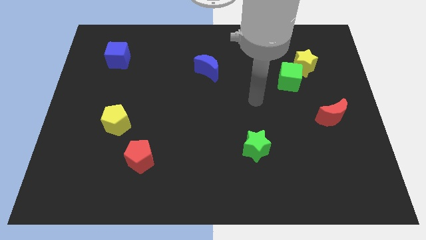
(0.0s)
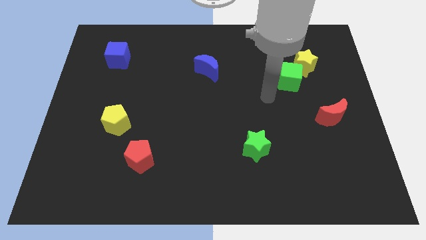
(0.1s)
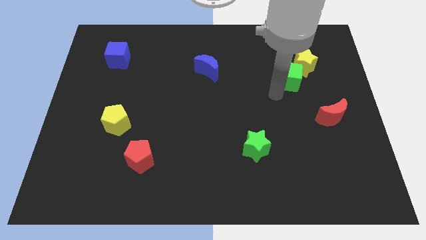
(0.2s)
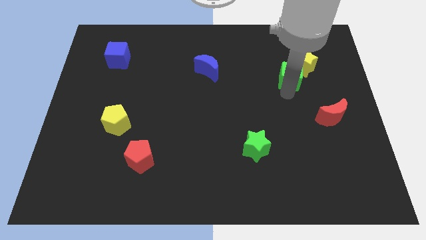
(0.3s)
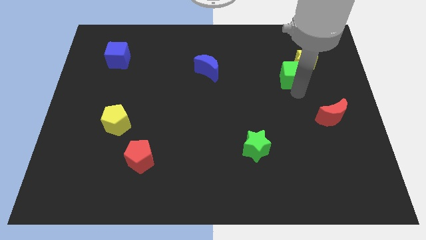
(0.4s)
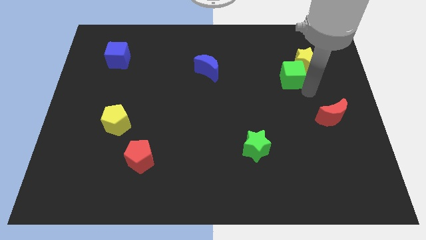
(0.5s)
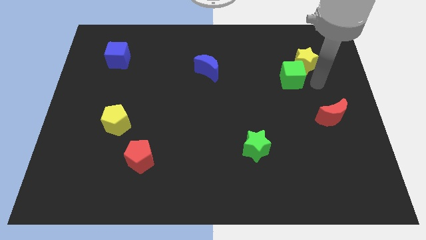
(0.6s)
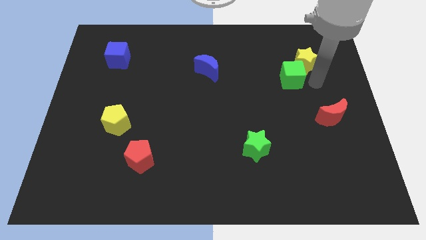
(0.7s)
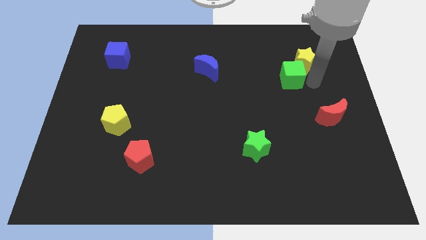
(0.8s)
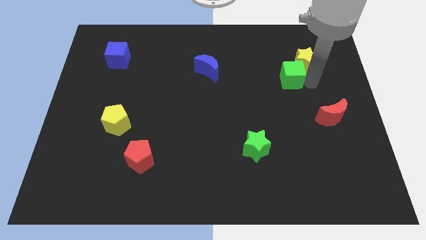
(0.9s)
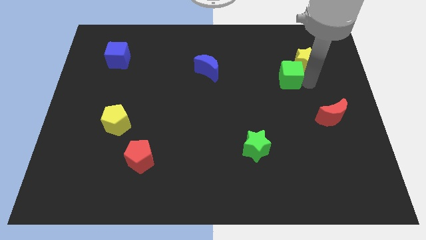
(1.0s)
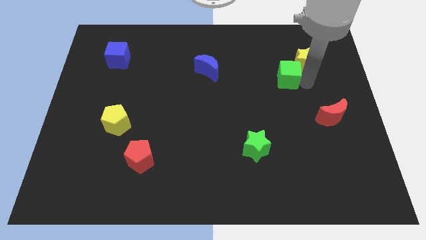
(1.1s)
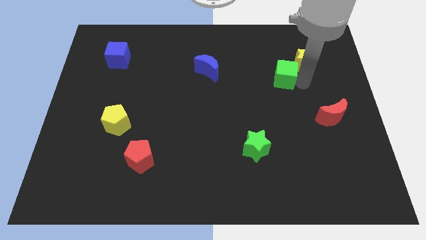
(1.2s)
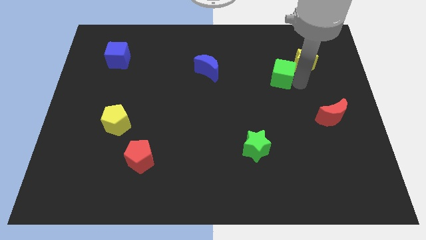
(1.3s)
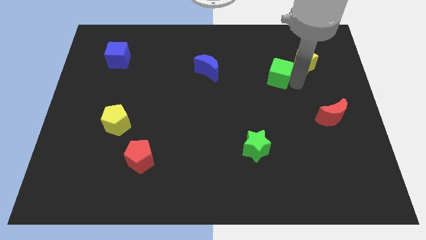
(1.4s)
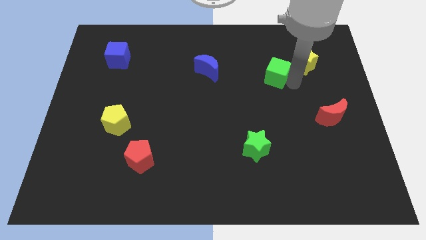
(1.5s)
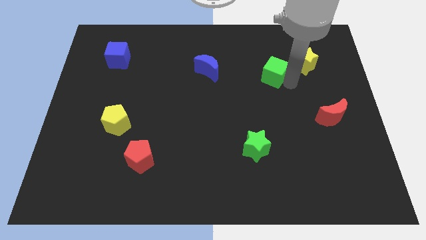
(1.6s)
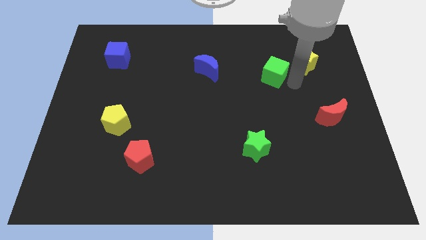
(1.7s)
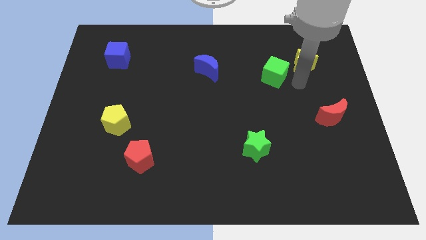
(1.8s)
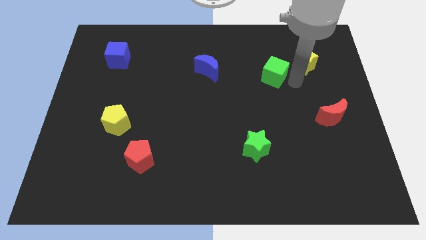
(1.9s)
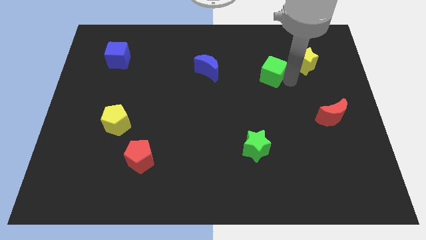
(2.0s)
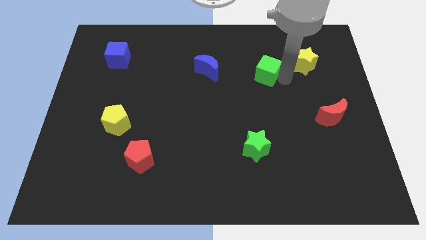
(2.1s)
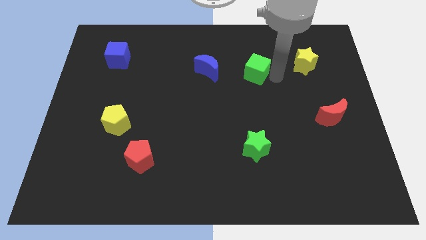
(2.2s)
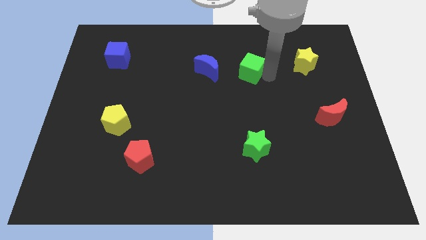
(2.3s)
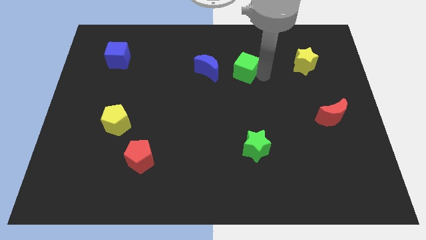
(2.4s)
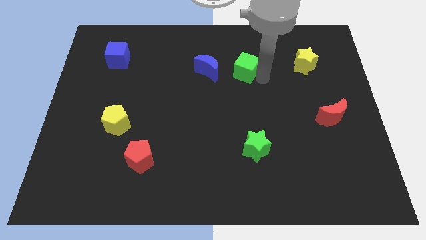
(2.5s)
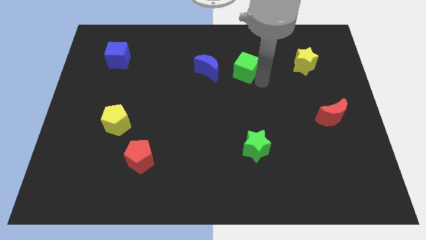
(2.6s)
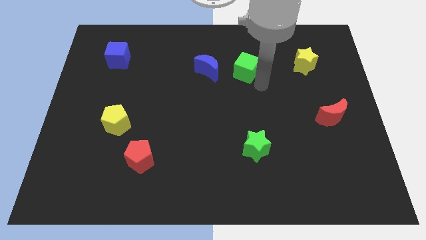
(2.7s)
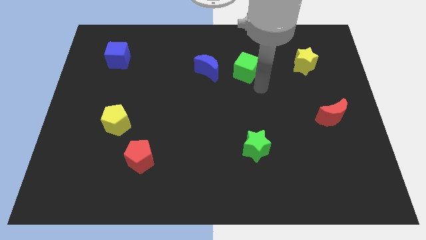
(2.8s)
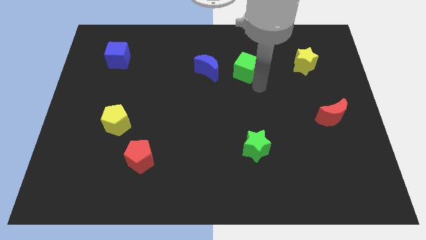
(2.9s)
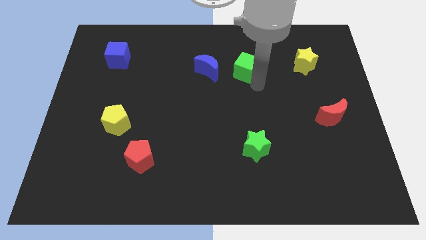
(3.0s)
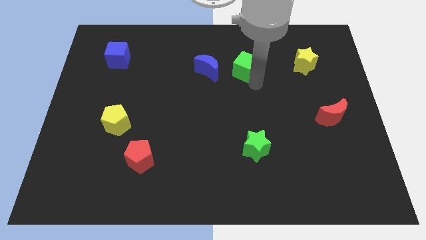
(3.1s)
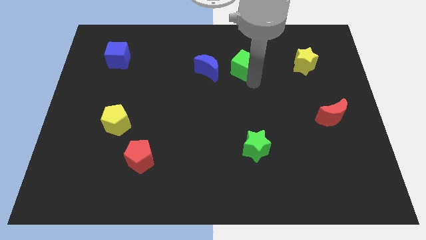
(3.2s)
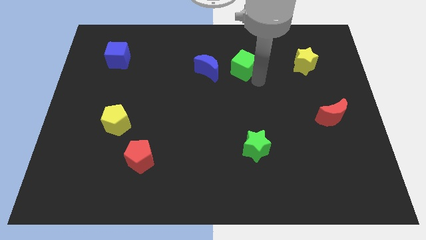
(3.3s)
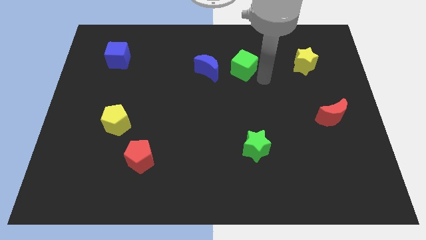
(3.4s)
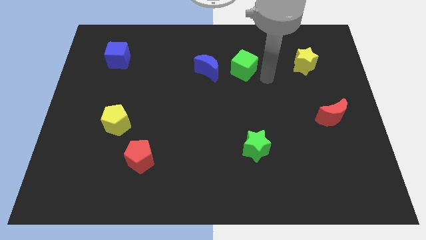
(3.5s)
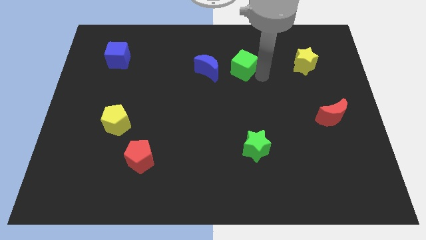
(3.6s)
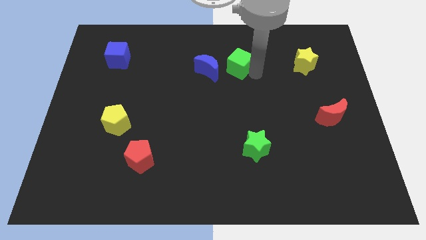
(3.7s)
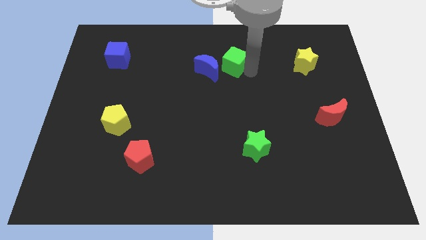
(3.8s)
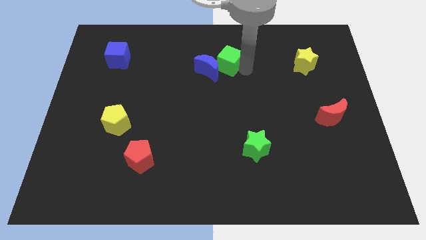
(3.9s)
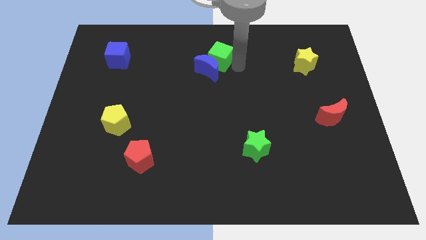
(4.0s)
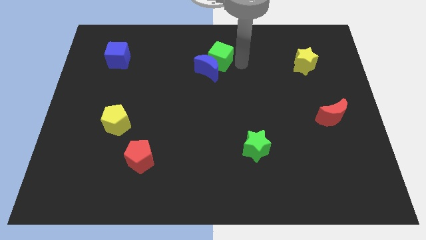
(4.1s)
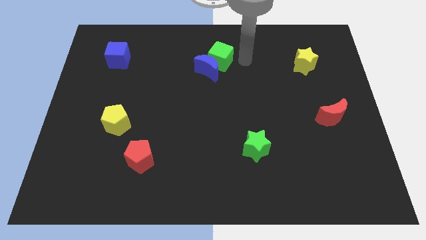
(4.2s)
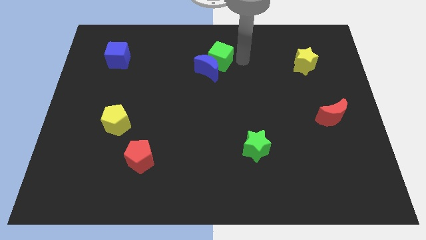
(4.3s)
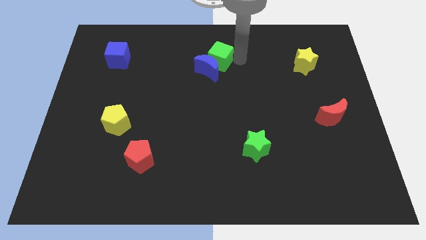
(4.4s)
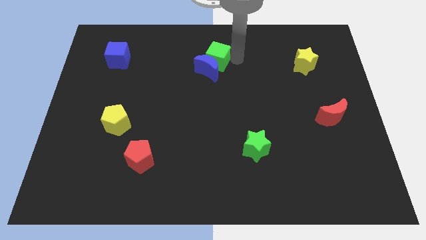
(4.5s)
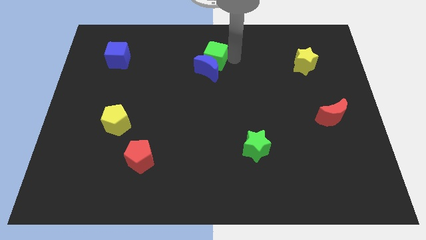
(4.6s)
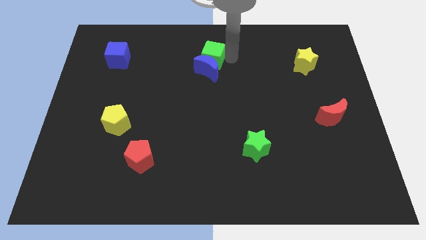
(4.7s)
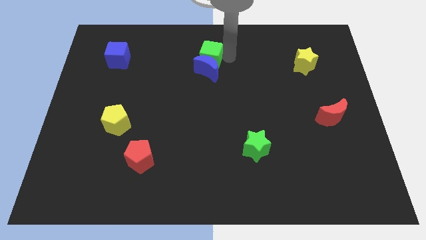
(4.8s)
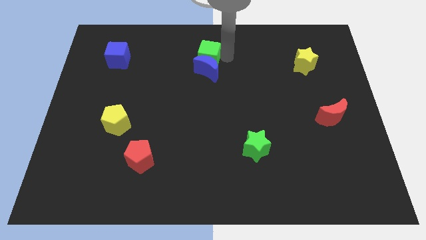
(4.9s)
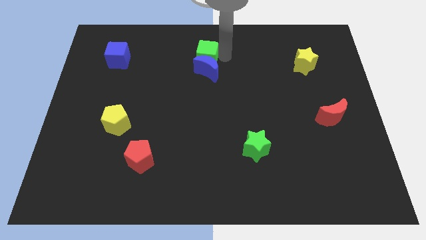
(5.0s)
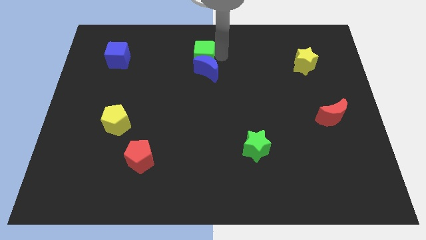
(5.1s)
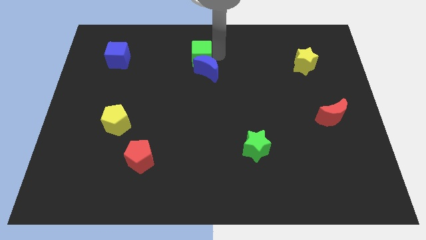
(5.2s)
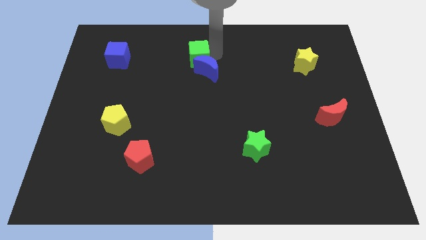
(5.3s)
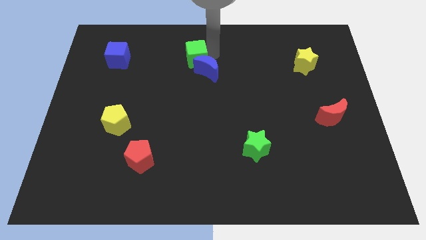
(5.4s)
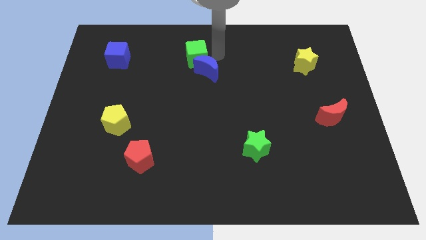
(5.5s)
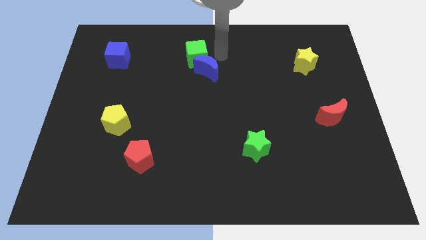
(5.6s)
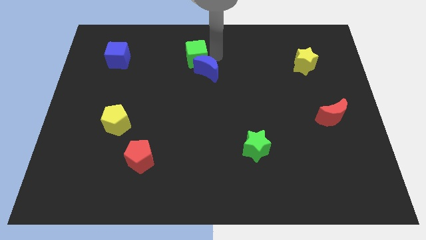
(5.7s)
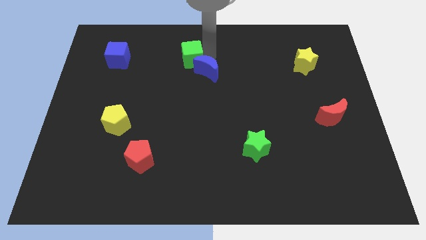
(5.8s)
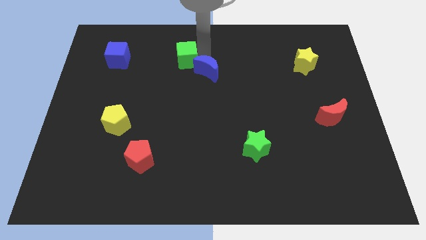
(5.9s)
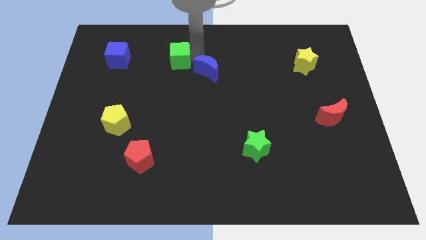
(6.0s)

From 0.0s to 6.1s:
slide the green cube to the right side of the blue cube

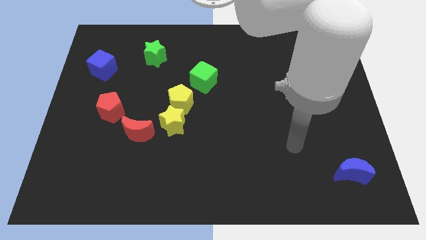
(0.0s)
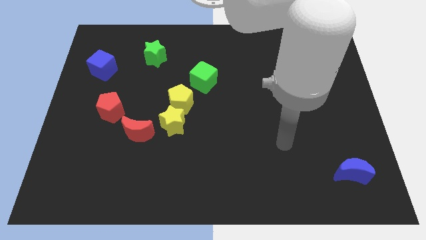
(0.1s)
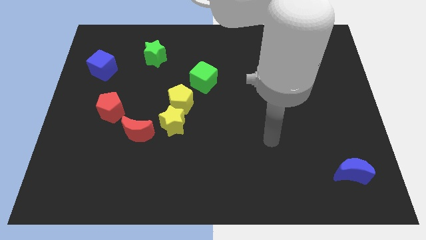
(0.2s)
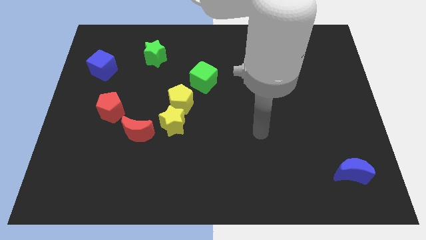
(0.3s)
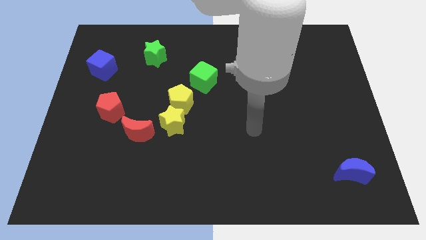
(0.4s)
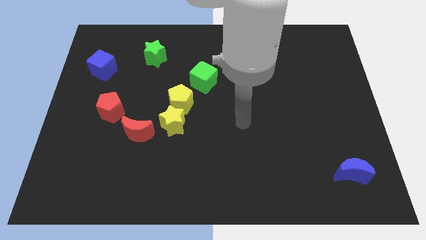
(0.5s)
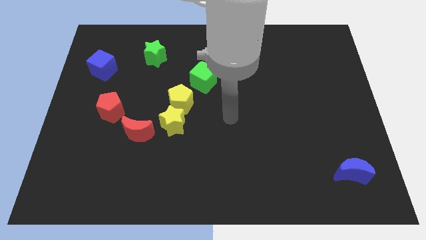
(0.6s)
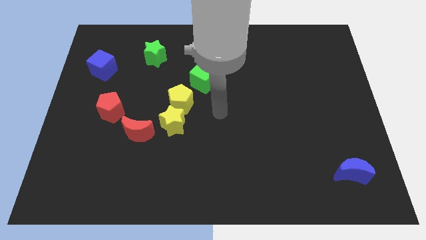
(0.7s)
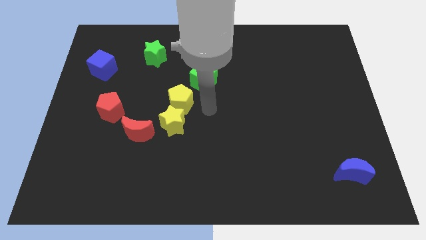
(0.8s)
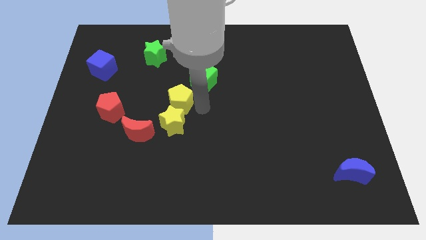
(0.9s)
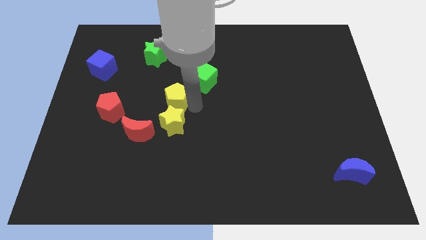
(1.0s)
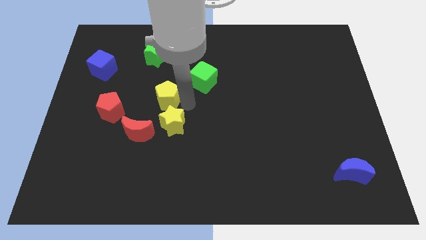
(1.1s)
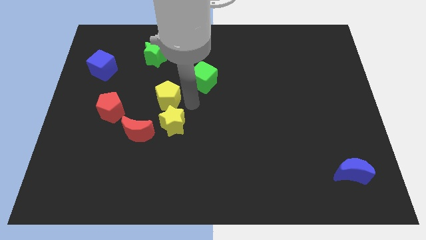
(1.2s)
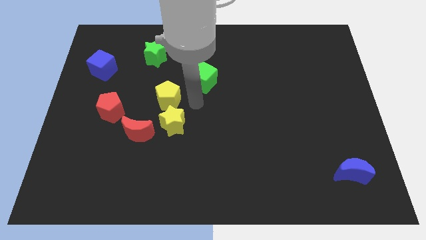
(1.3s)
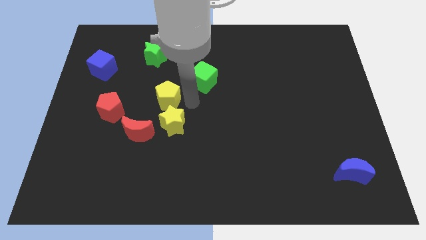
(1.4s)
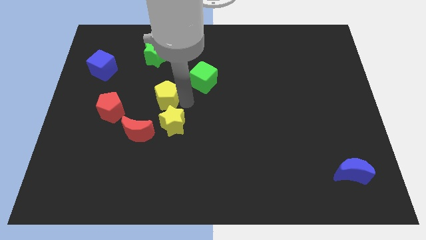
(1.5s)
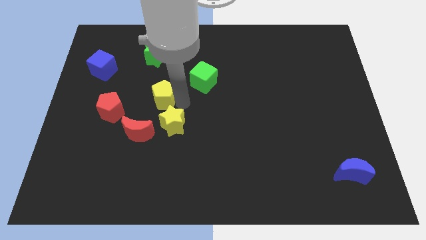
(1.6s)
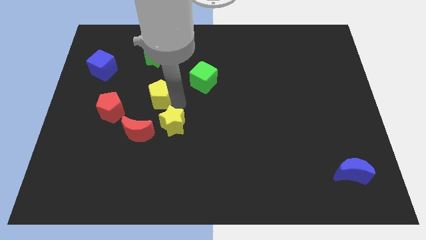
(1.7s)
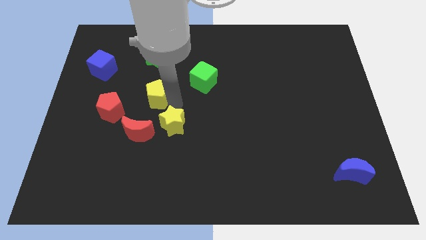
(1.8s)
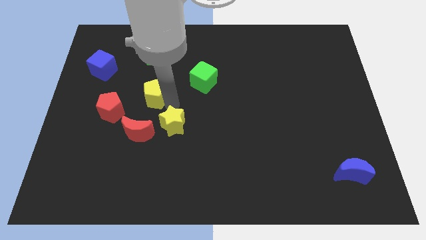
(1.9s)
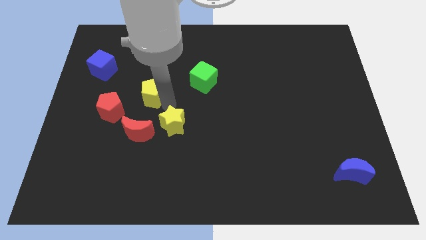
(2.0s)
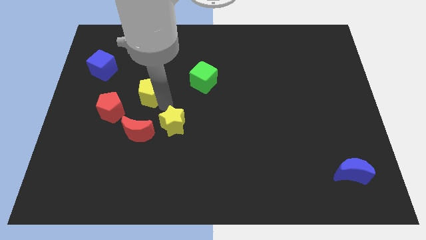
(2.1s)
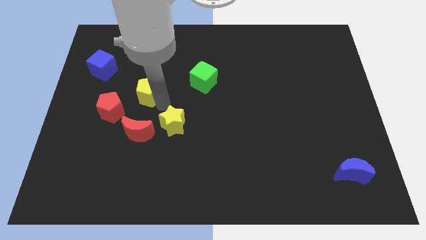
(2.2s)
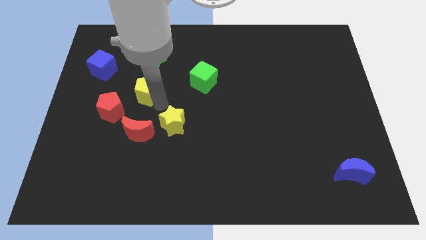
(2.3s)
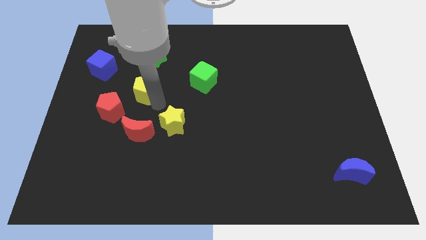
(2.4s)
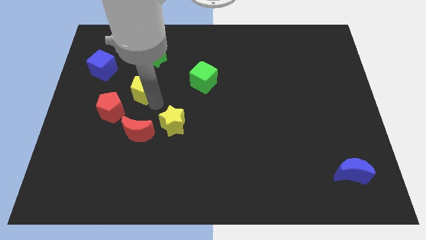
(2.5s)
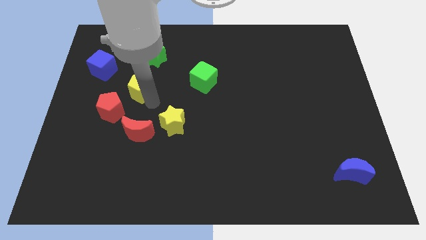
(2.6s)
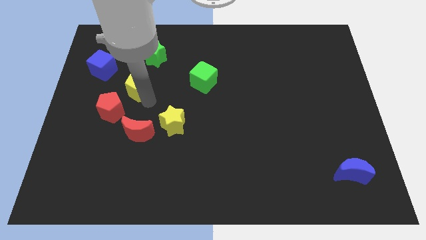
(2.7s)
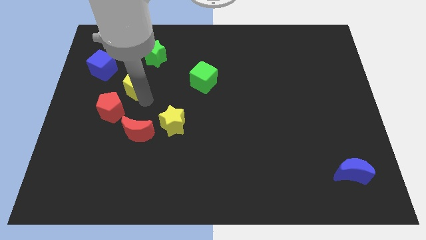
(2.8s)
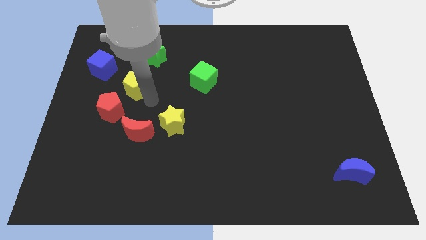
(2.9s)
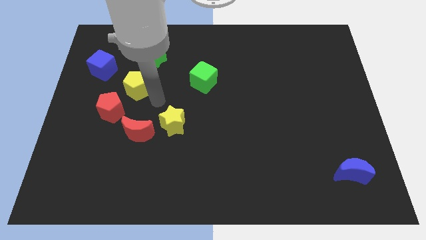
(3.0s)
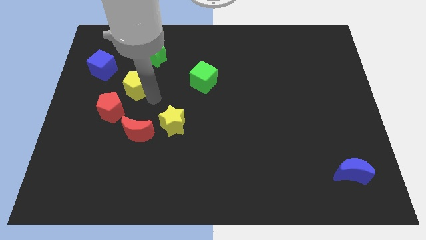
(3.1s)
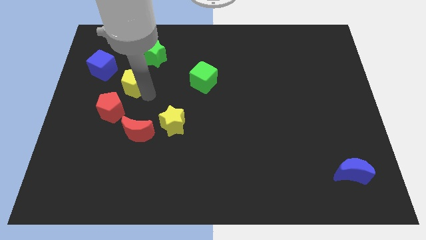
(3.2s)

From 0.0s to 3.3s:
slide the yellow pentagon to the top side of the red pentagon
